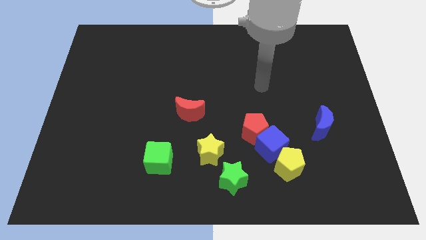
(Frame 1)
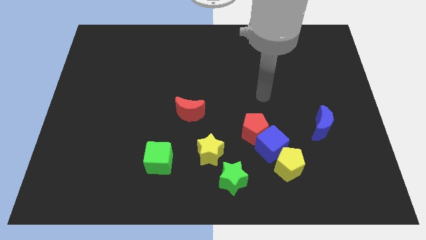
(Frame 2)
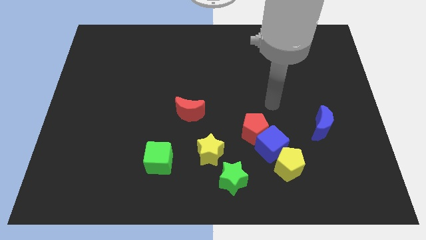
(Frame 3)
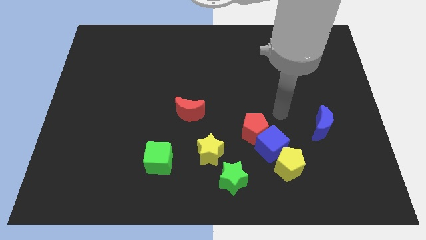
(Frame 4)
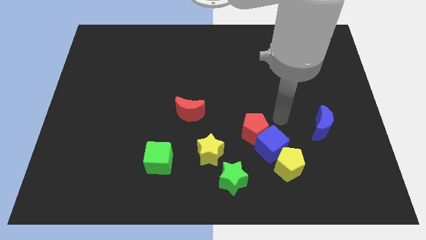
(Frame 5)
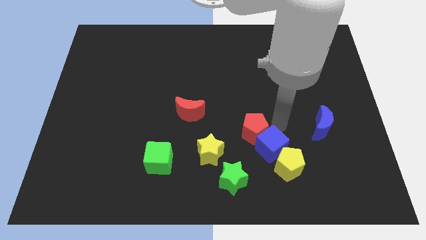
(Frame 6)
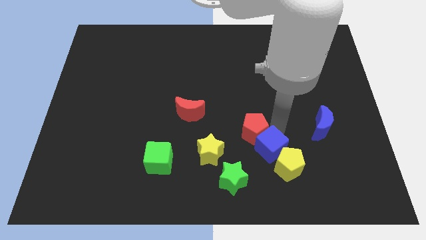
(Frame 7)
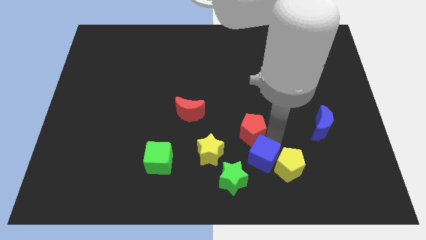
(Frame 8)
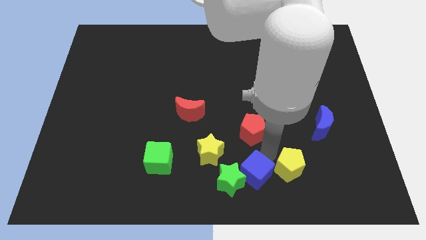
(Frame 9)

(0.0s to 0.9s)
pull the red pentagon apart from the blue cube

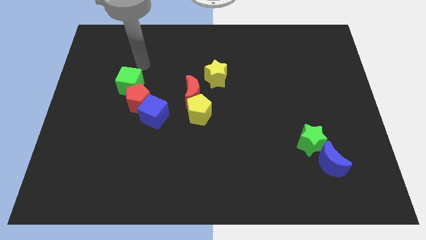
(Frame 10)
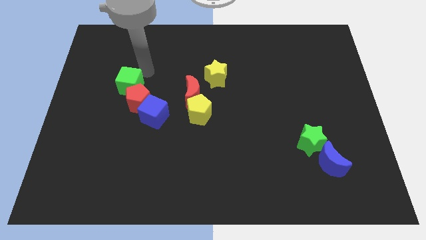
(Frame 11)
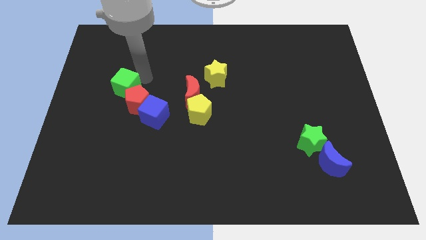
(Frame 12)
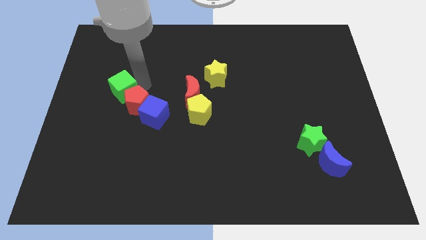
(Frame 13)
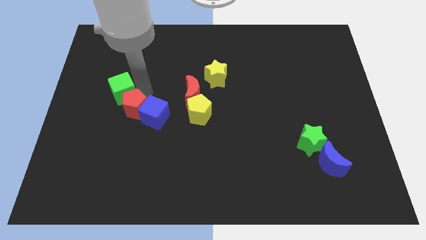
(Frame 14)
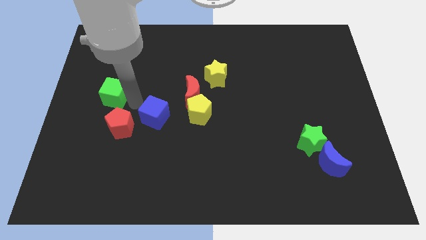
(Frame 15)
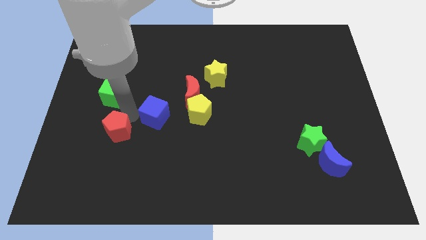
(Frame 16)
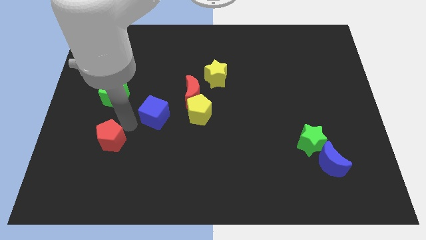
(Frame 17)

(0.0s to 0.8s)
separate the blue cube from the red pentagon

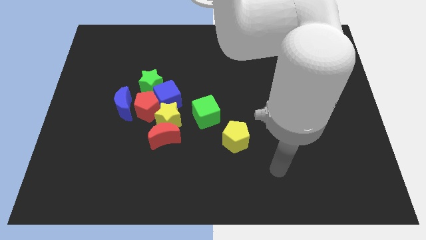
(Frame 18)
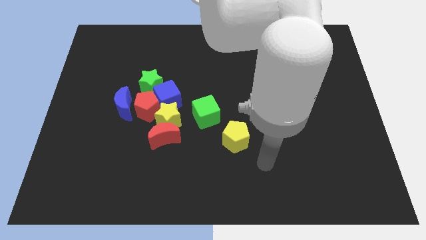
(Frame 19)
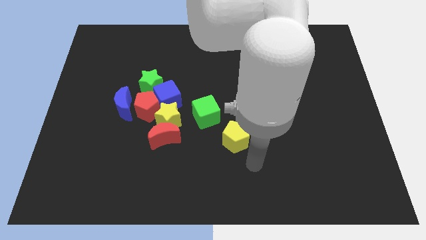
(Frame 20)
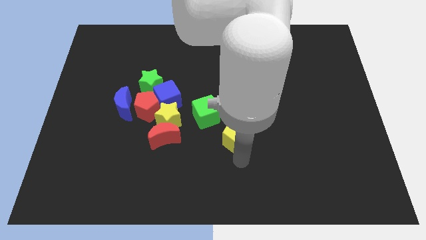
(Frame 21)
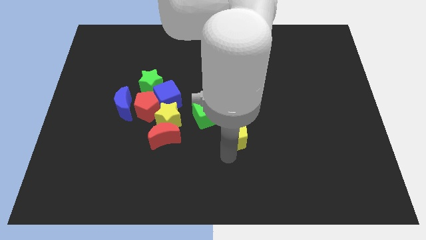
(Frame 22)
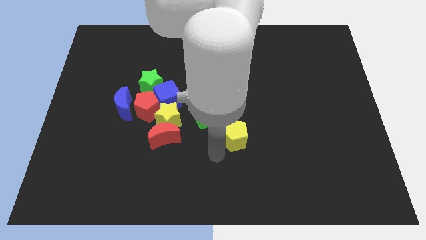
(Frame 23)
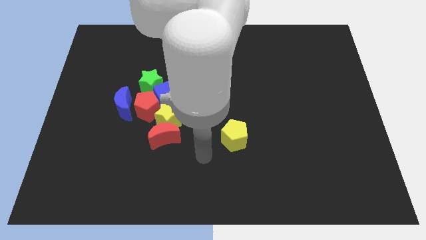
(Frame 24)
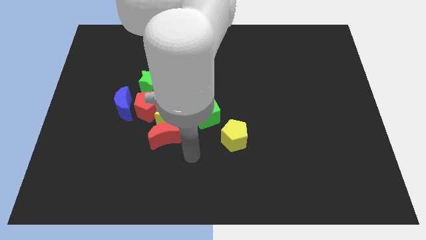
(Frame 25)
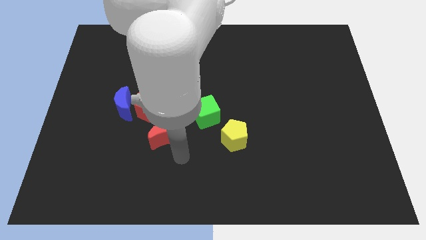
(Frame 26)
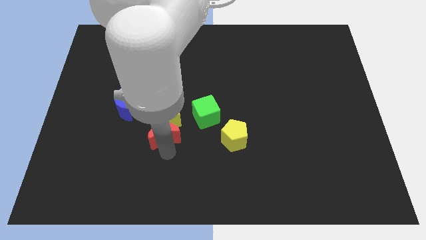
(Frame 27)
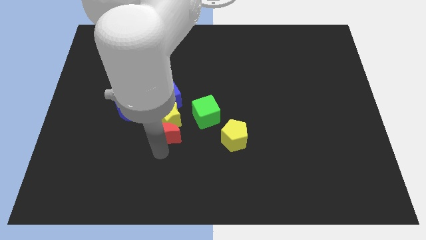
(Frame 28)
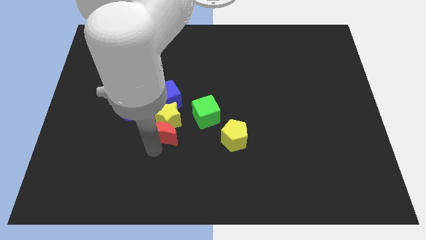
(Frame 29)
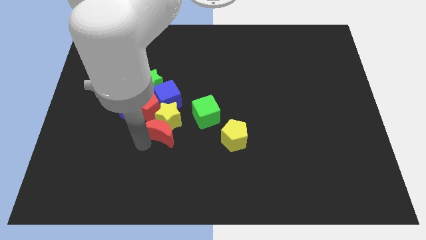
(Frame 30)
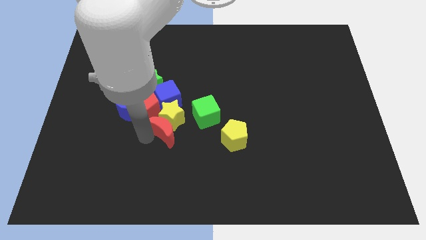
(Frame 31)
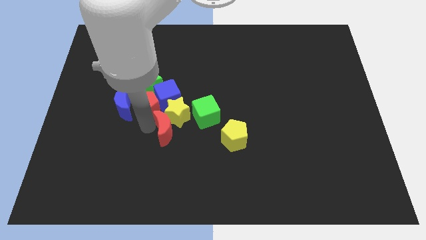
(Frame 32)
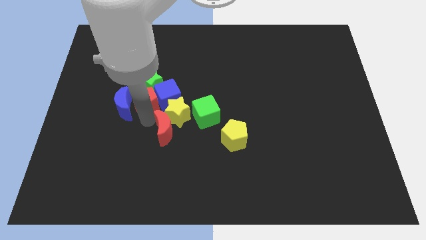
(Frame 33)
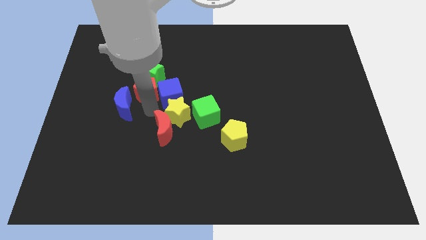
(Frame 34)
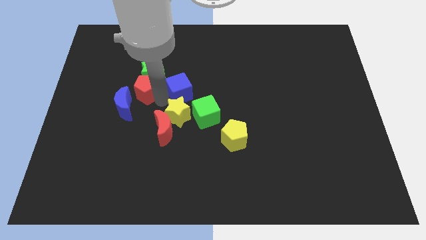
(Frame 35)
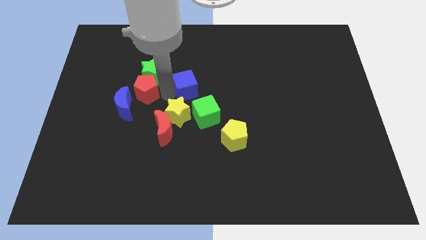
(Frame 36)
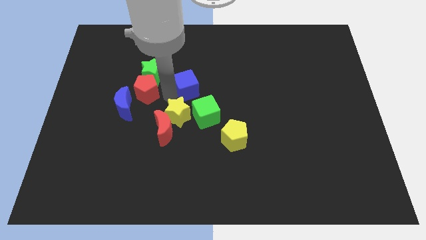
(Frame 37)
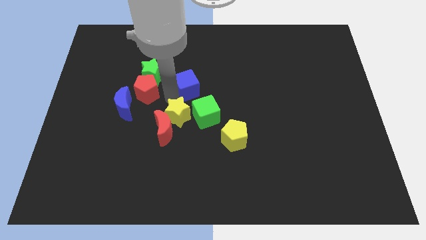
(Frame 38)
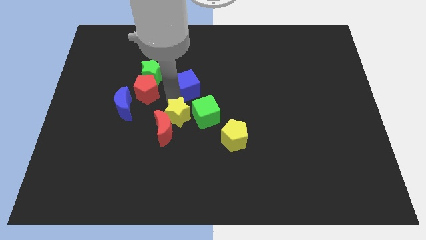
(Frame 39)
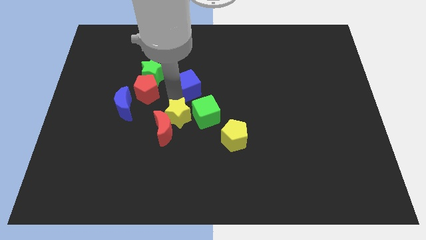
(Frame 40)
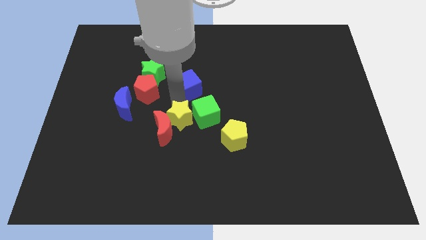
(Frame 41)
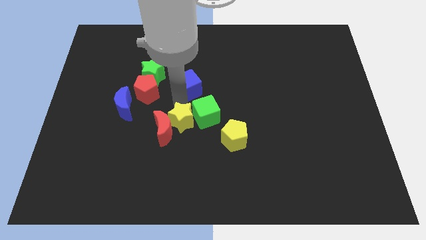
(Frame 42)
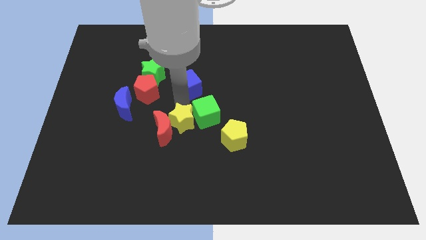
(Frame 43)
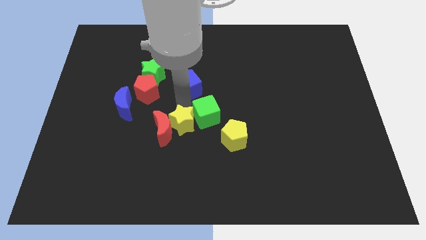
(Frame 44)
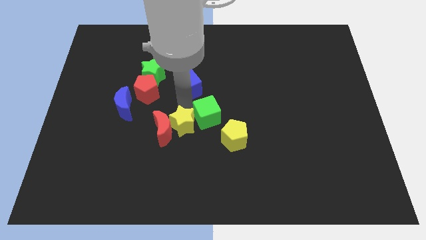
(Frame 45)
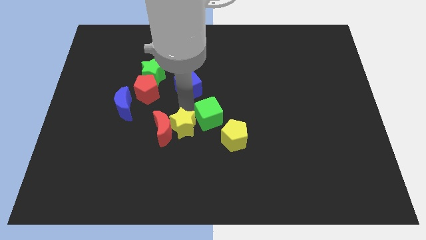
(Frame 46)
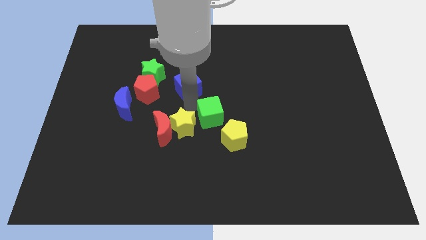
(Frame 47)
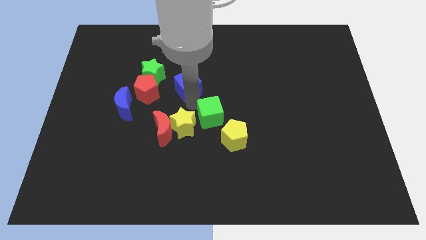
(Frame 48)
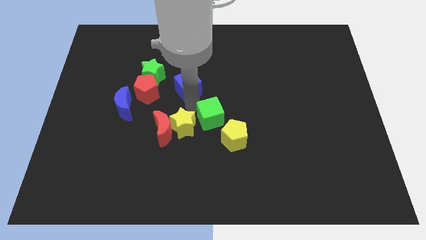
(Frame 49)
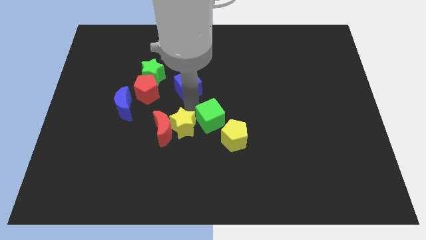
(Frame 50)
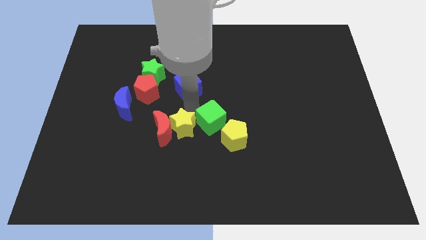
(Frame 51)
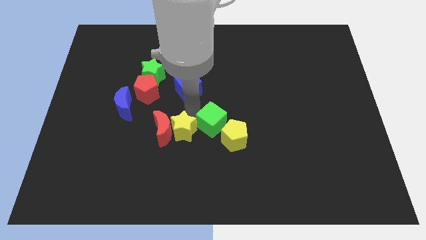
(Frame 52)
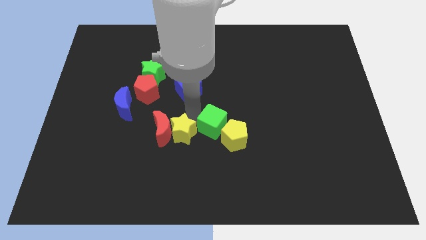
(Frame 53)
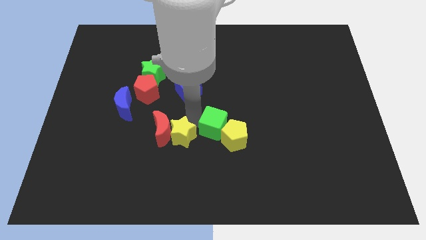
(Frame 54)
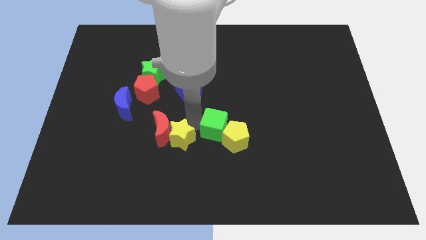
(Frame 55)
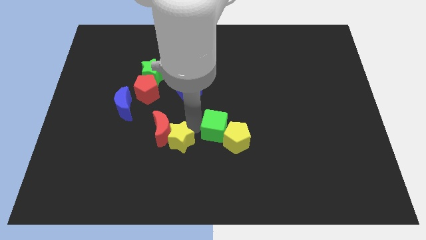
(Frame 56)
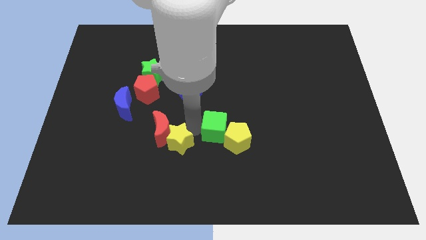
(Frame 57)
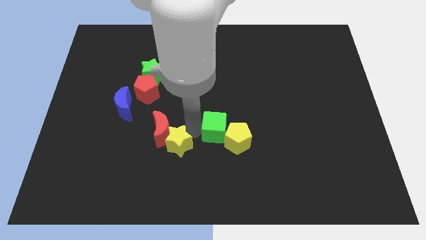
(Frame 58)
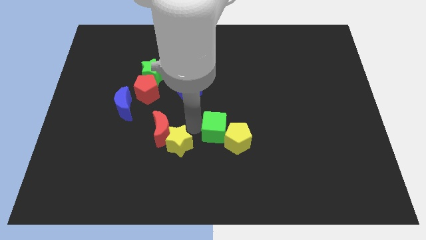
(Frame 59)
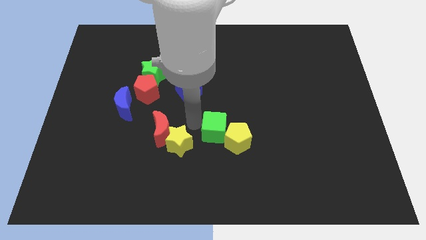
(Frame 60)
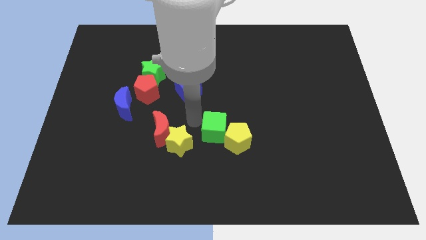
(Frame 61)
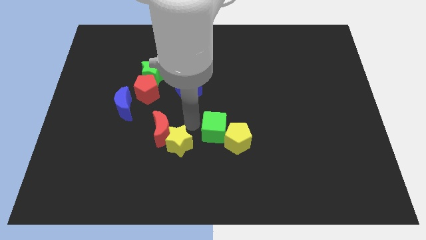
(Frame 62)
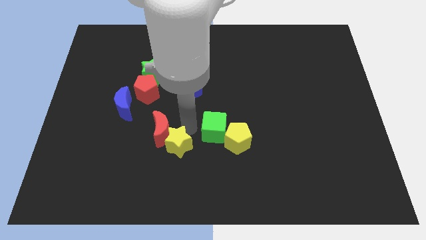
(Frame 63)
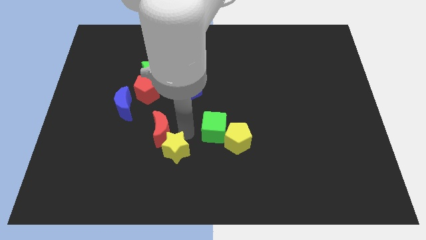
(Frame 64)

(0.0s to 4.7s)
move the yellow star away from the group of blocks

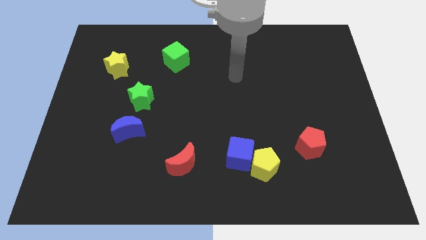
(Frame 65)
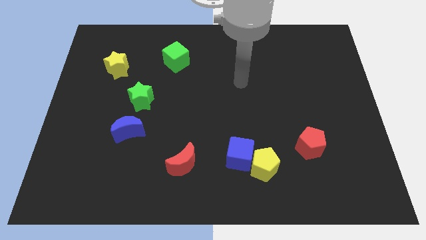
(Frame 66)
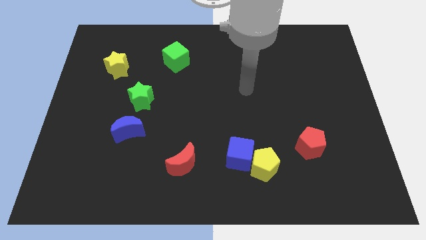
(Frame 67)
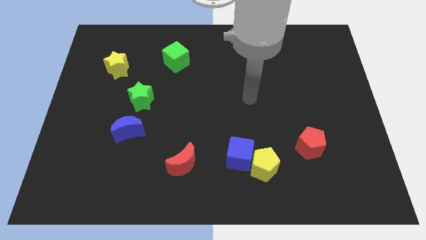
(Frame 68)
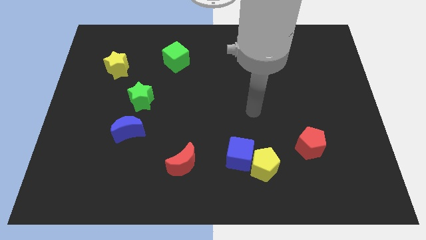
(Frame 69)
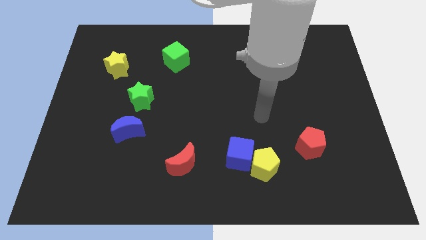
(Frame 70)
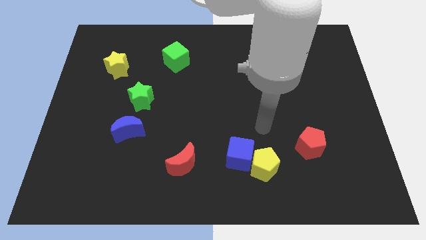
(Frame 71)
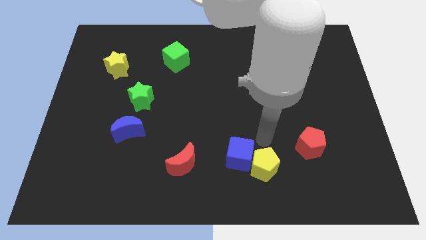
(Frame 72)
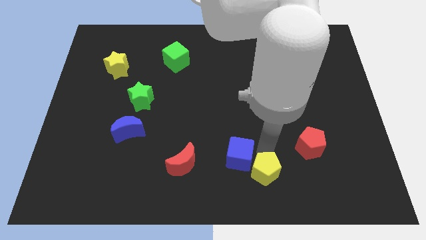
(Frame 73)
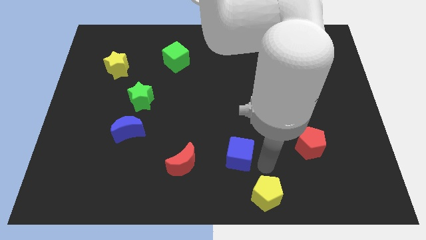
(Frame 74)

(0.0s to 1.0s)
separate the blue cube from the yellow pentagon

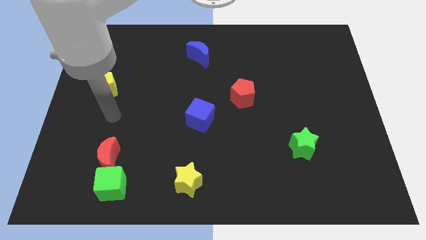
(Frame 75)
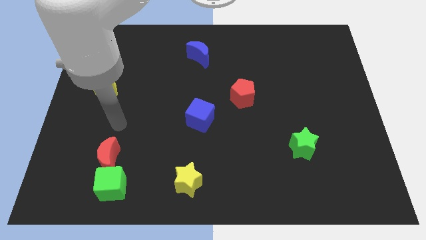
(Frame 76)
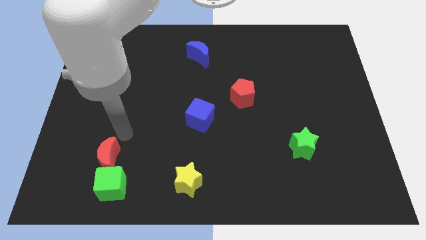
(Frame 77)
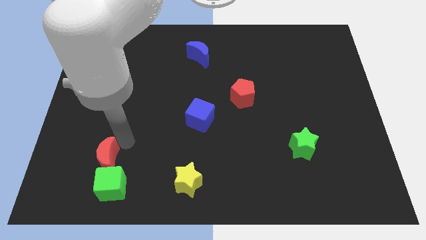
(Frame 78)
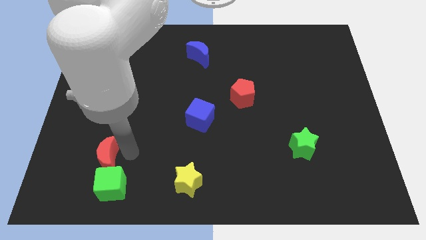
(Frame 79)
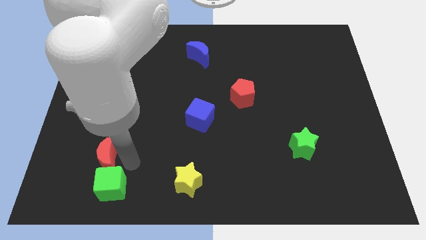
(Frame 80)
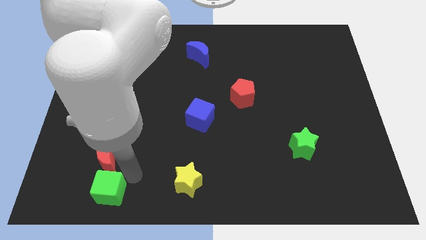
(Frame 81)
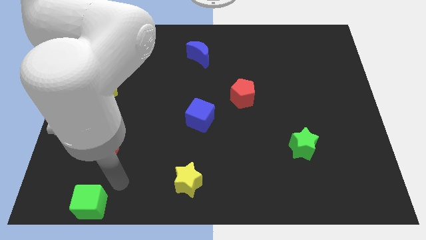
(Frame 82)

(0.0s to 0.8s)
separate the red moon from the green cube

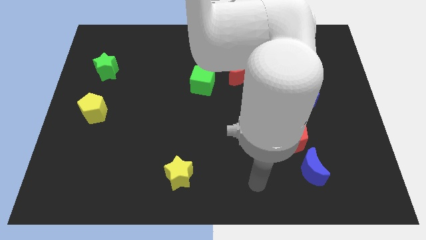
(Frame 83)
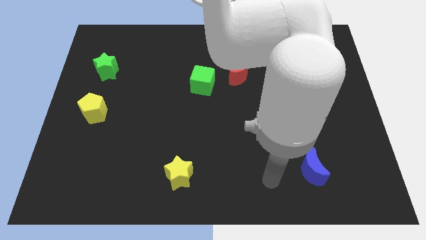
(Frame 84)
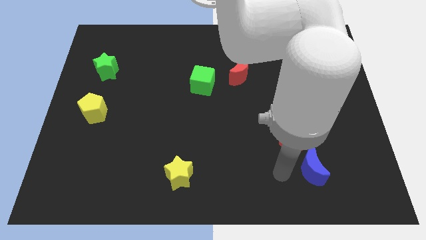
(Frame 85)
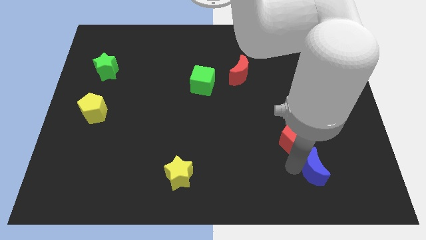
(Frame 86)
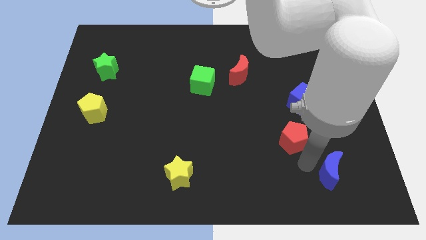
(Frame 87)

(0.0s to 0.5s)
separate the red pentagon from the blue moon

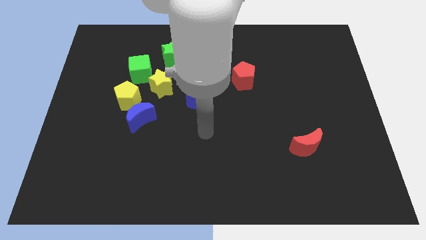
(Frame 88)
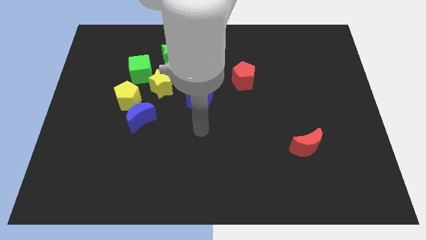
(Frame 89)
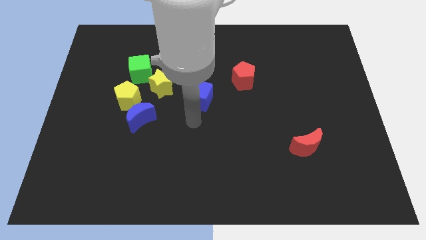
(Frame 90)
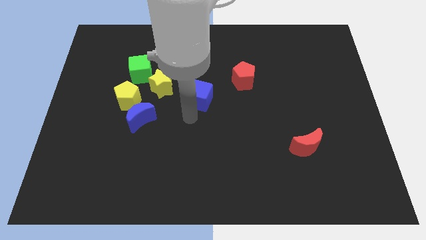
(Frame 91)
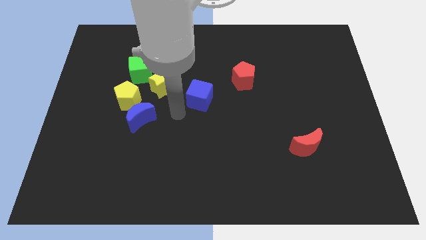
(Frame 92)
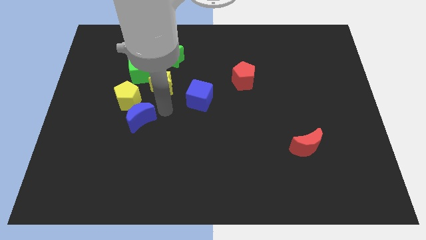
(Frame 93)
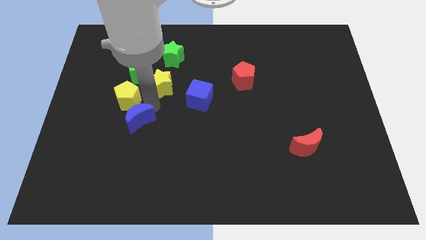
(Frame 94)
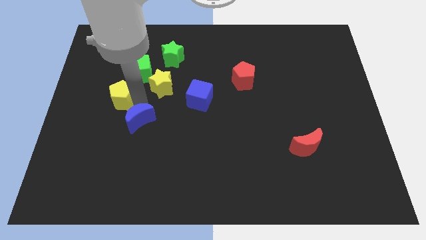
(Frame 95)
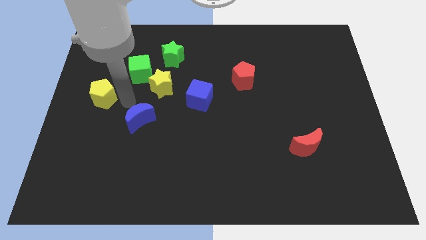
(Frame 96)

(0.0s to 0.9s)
pull the blue moon apart from the yellow pentagon
